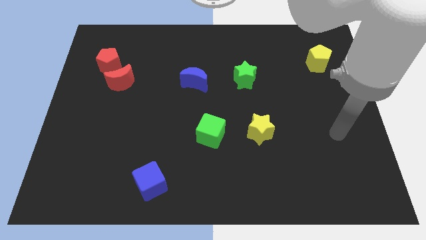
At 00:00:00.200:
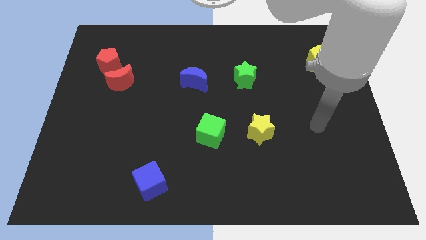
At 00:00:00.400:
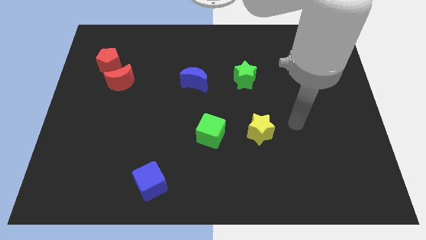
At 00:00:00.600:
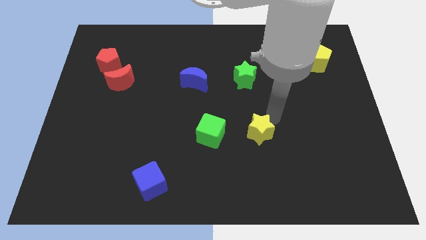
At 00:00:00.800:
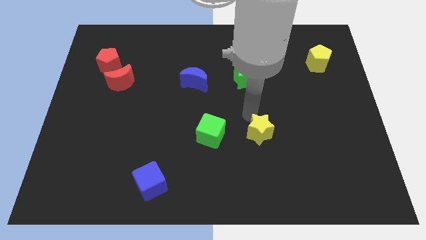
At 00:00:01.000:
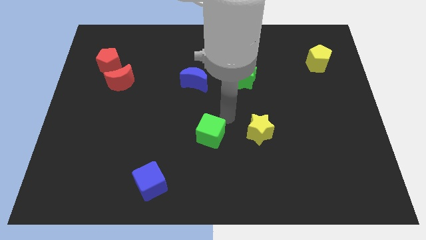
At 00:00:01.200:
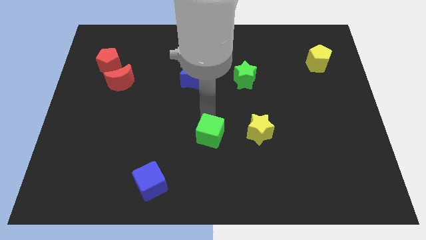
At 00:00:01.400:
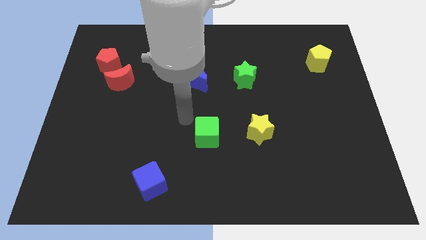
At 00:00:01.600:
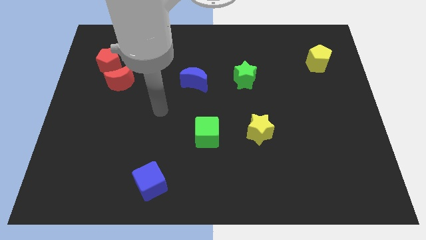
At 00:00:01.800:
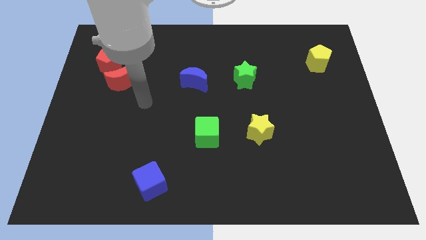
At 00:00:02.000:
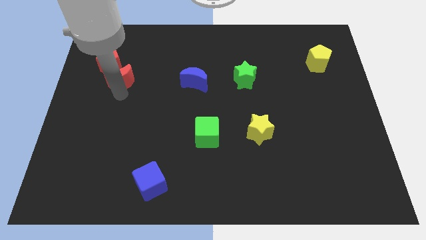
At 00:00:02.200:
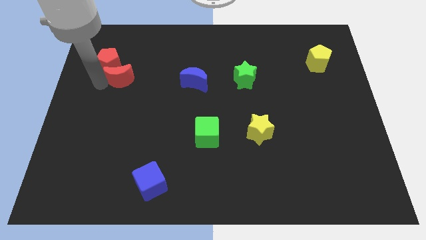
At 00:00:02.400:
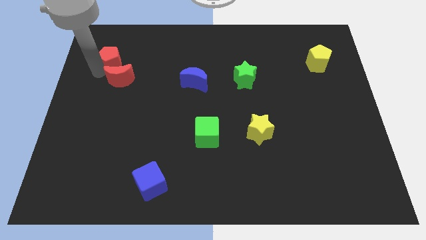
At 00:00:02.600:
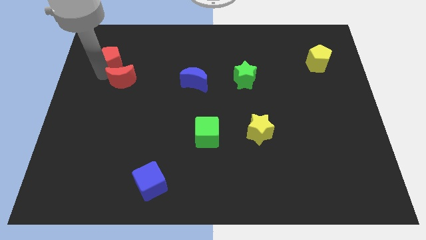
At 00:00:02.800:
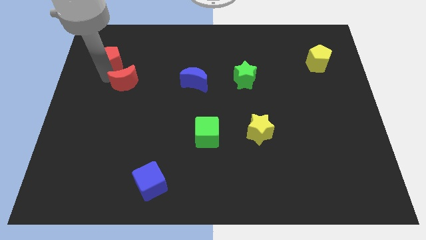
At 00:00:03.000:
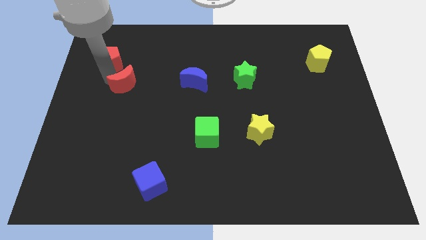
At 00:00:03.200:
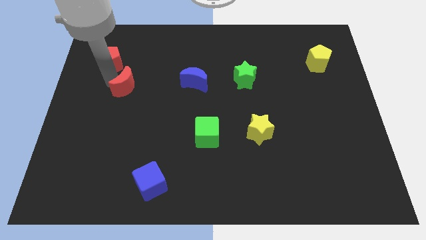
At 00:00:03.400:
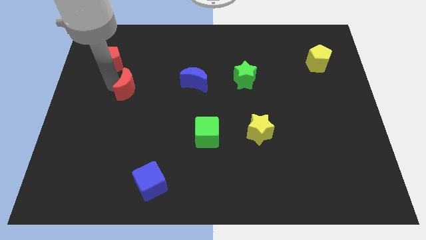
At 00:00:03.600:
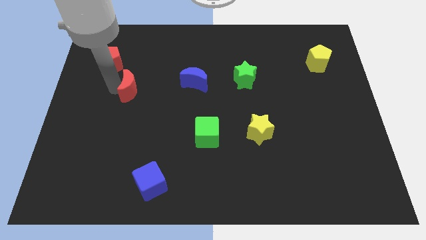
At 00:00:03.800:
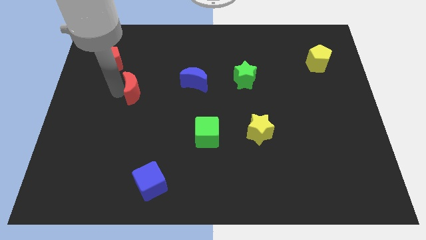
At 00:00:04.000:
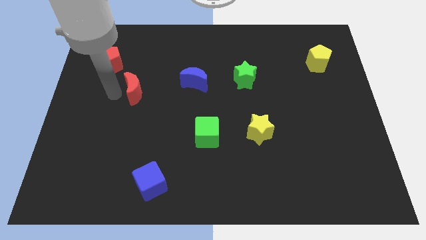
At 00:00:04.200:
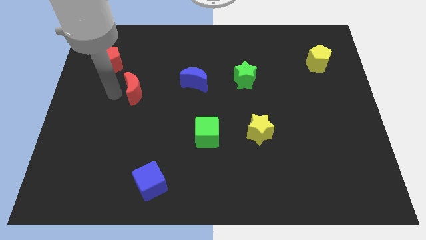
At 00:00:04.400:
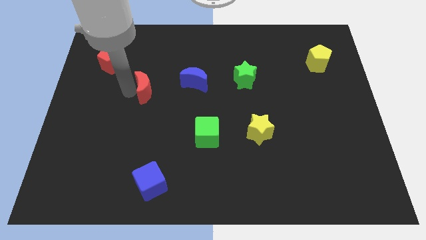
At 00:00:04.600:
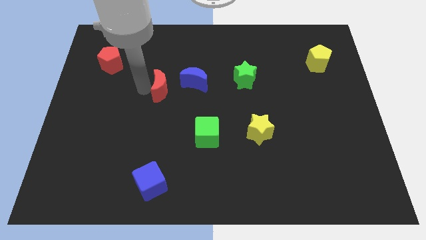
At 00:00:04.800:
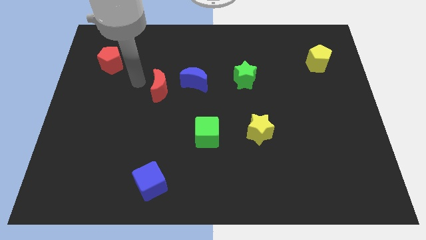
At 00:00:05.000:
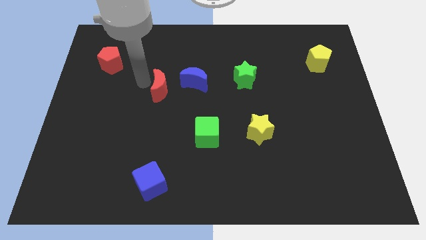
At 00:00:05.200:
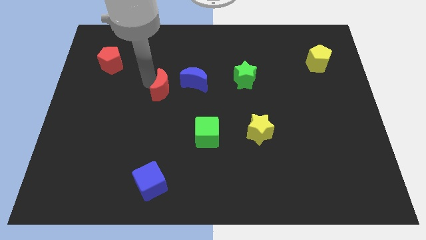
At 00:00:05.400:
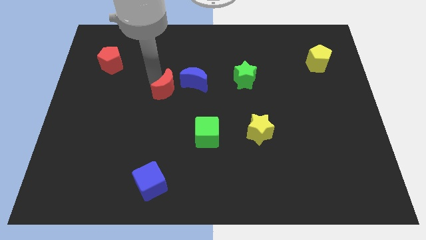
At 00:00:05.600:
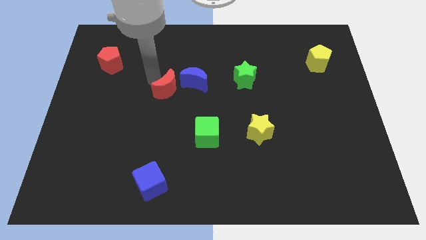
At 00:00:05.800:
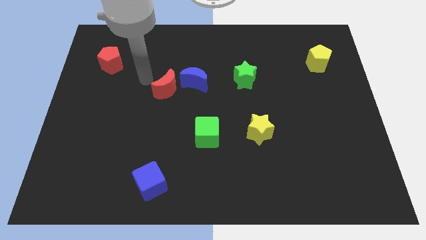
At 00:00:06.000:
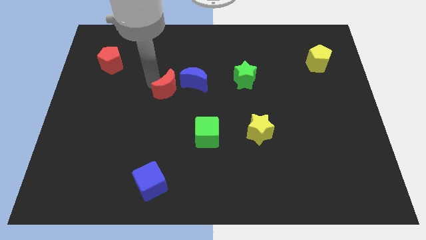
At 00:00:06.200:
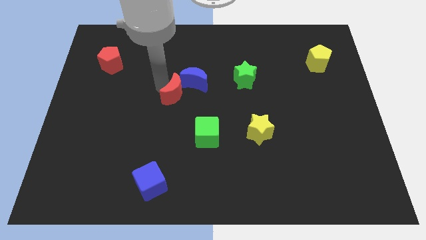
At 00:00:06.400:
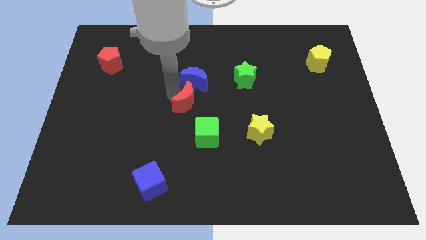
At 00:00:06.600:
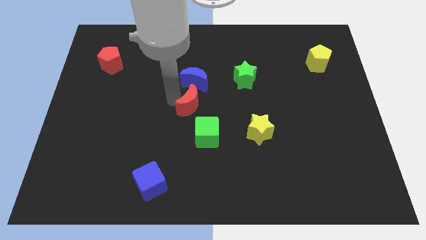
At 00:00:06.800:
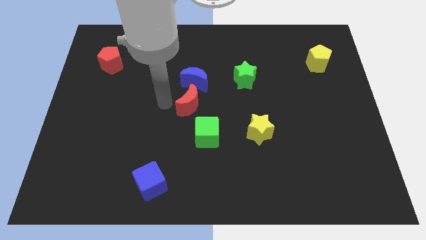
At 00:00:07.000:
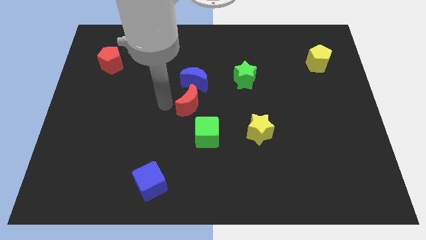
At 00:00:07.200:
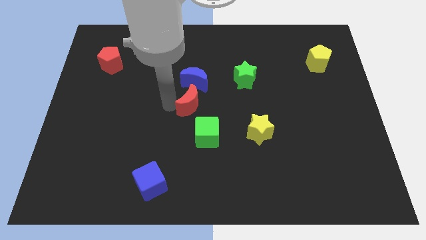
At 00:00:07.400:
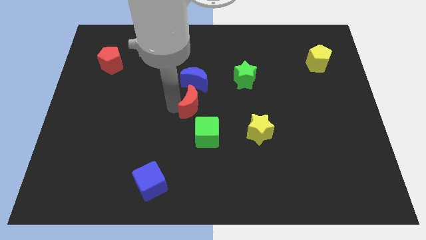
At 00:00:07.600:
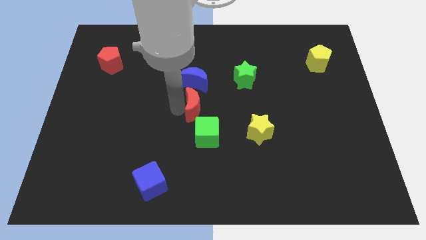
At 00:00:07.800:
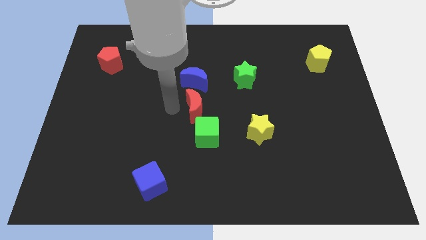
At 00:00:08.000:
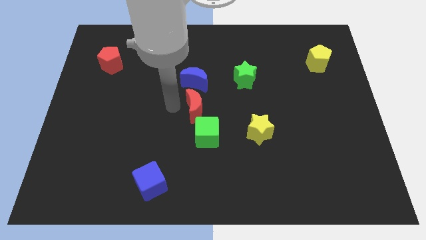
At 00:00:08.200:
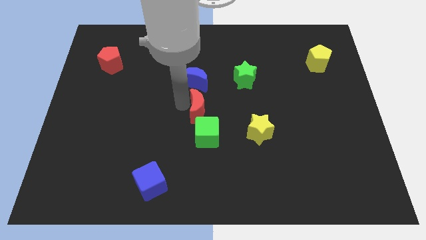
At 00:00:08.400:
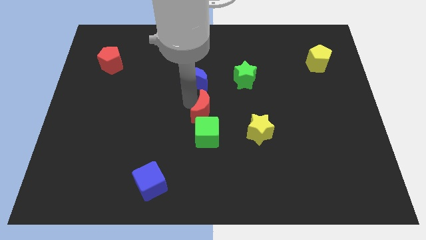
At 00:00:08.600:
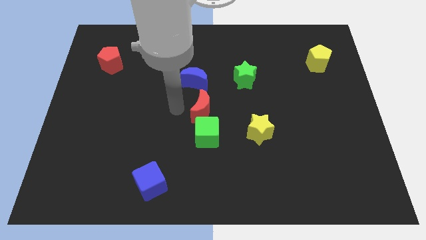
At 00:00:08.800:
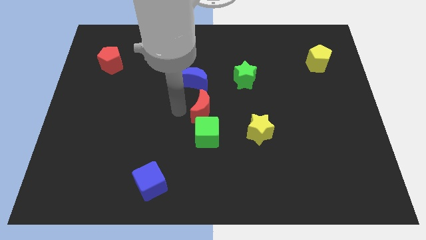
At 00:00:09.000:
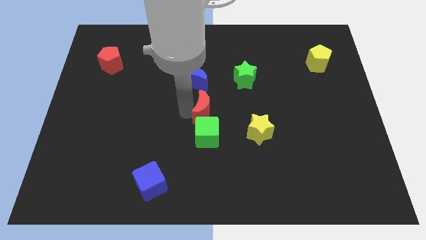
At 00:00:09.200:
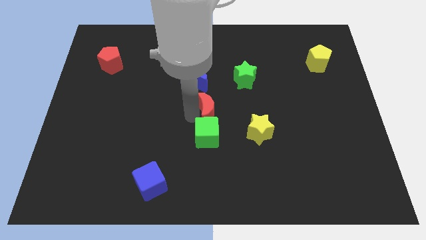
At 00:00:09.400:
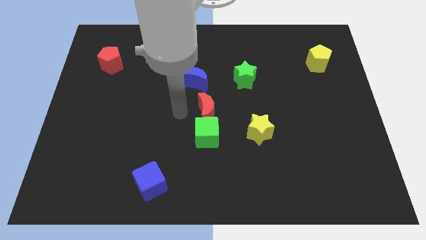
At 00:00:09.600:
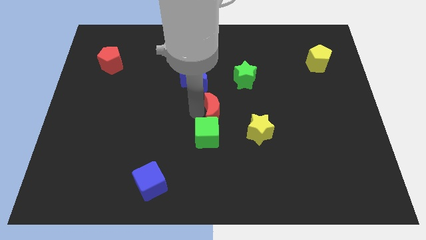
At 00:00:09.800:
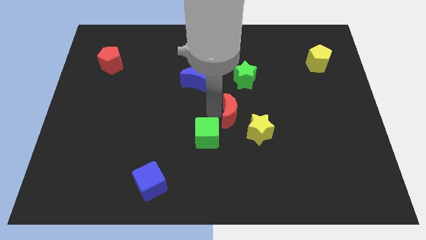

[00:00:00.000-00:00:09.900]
slide the red moon to the bottom of the green star

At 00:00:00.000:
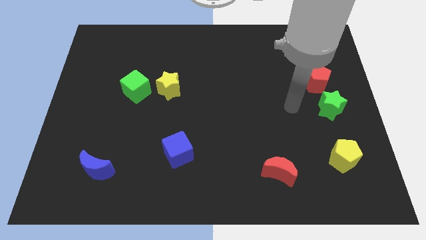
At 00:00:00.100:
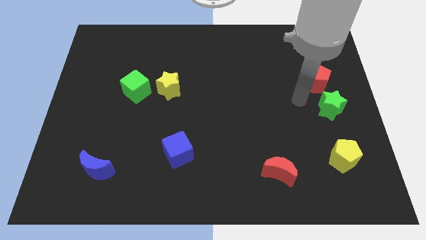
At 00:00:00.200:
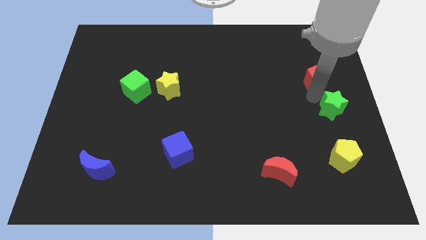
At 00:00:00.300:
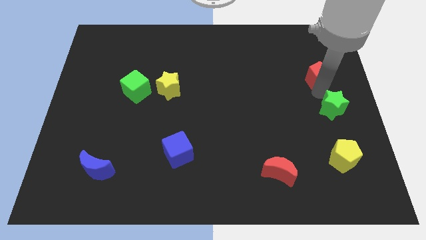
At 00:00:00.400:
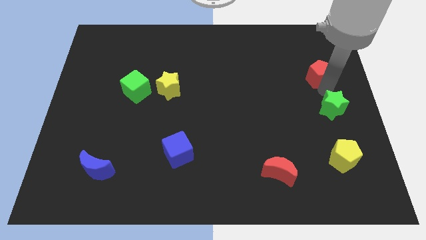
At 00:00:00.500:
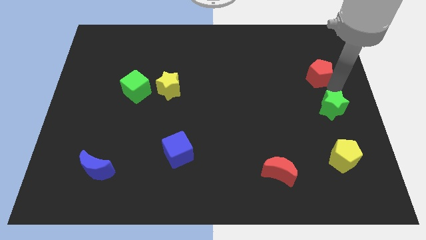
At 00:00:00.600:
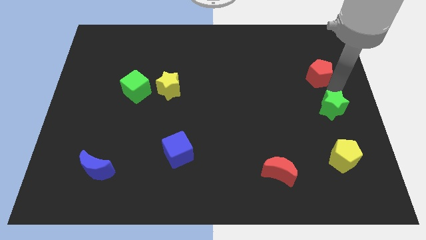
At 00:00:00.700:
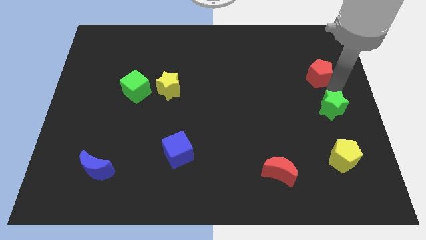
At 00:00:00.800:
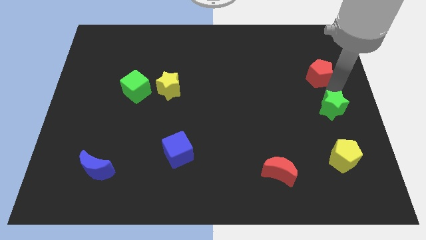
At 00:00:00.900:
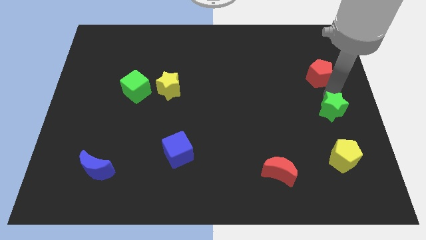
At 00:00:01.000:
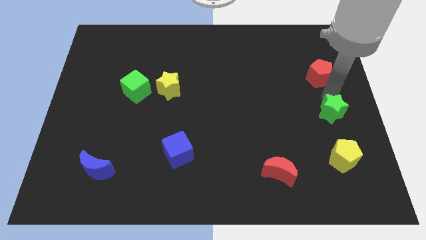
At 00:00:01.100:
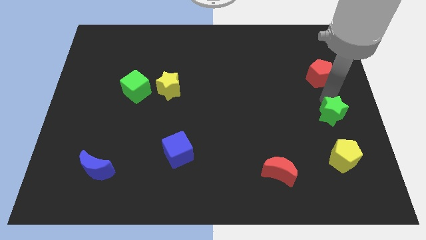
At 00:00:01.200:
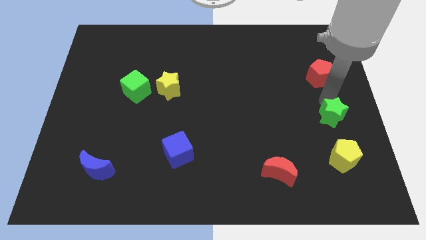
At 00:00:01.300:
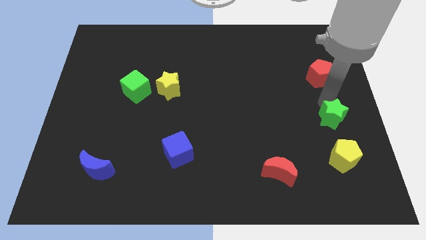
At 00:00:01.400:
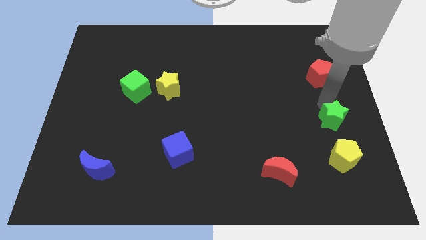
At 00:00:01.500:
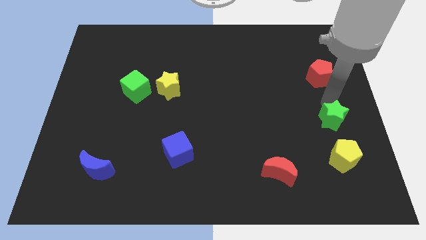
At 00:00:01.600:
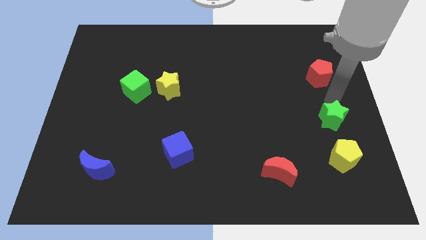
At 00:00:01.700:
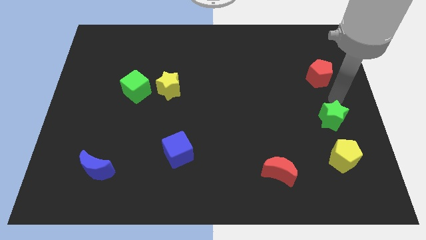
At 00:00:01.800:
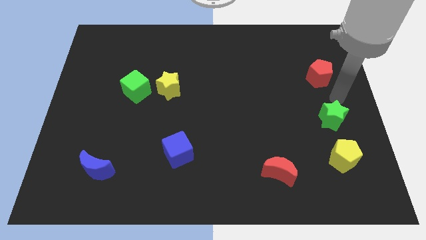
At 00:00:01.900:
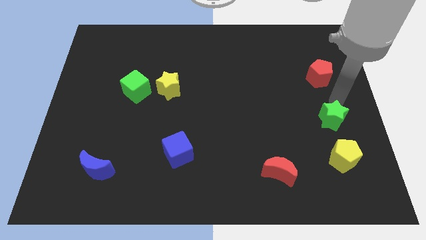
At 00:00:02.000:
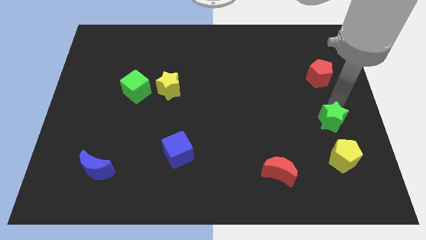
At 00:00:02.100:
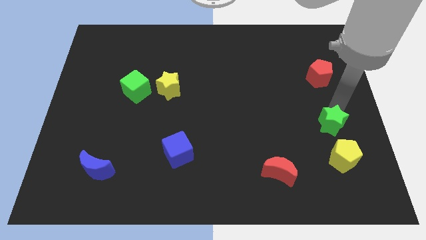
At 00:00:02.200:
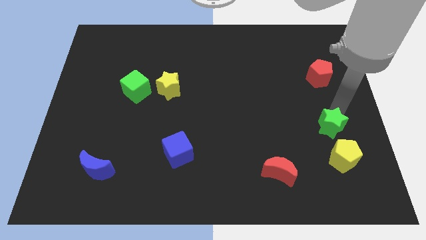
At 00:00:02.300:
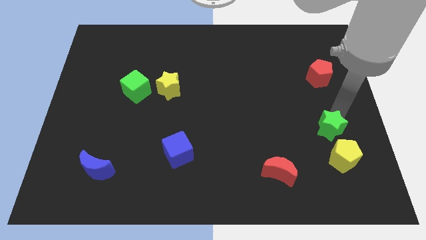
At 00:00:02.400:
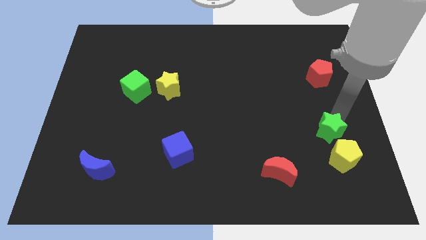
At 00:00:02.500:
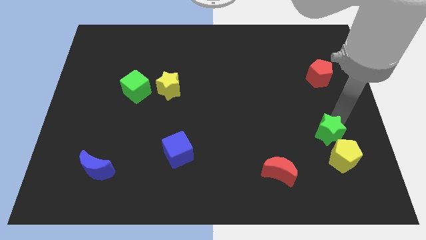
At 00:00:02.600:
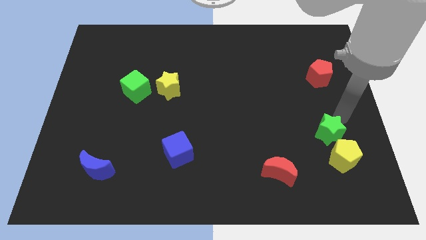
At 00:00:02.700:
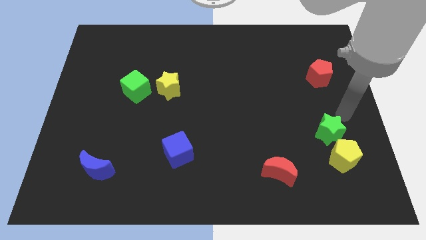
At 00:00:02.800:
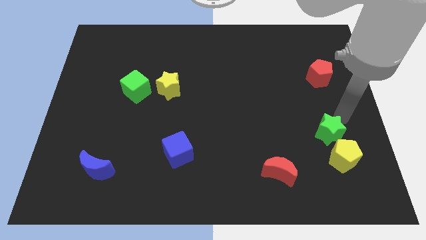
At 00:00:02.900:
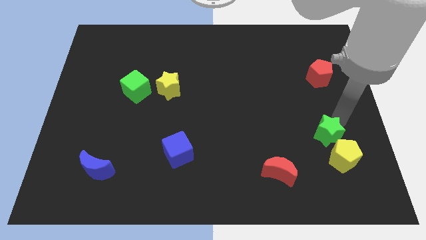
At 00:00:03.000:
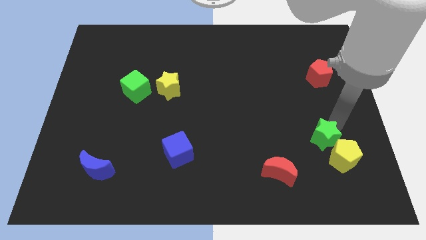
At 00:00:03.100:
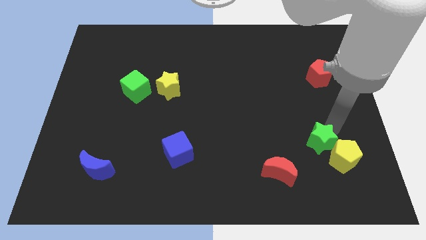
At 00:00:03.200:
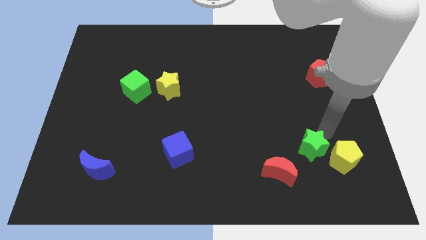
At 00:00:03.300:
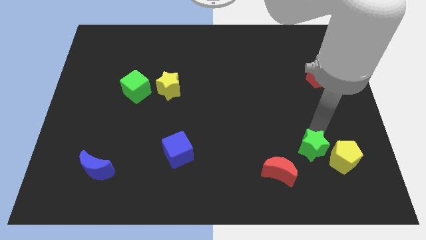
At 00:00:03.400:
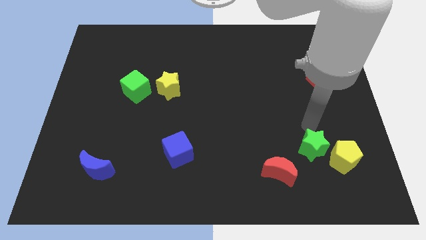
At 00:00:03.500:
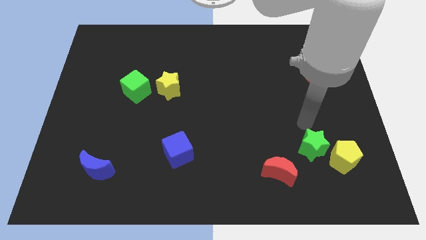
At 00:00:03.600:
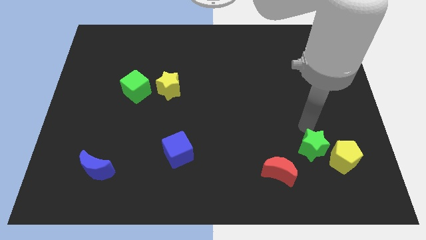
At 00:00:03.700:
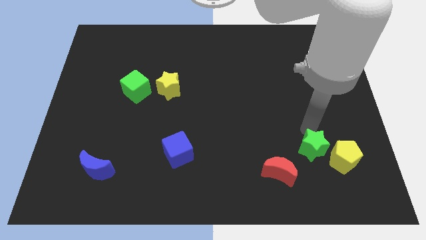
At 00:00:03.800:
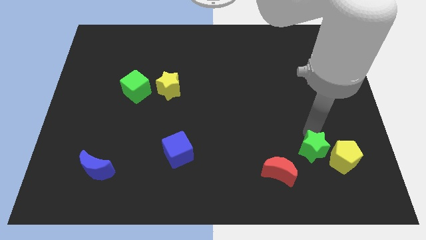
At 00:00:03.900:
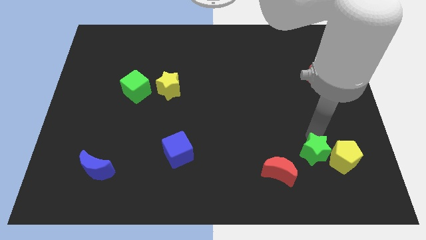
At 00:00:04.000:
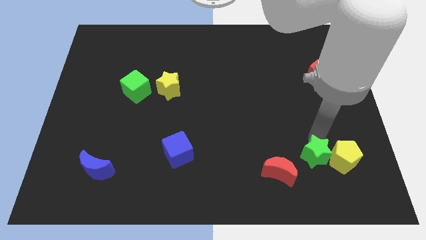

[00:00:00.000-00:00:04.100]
put the green star diagonally down and to the left of the yellow pentagon
